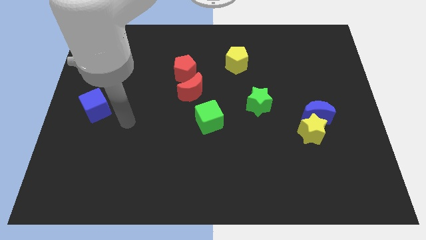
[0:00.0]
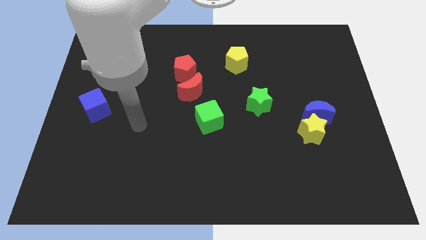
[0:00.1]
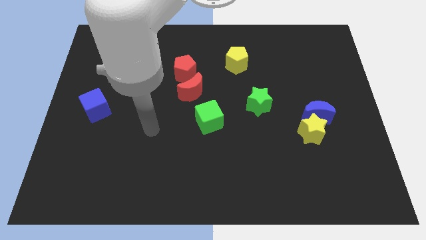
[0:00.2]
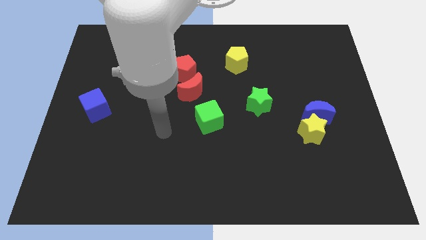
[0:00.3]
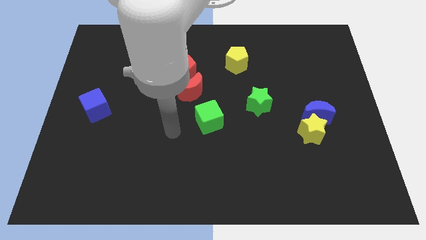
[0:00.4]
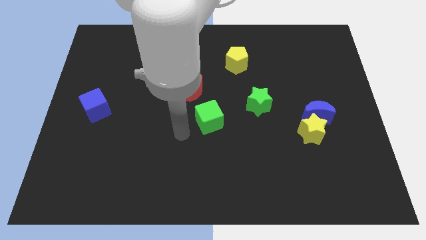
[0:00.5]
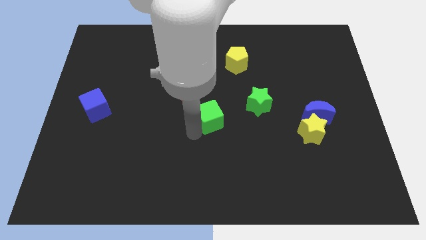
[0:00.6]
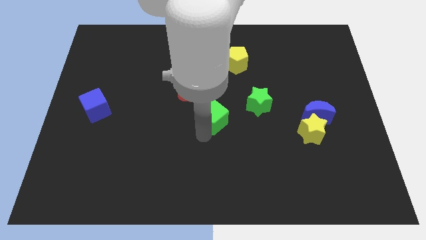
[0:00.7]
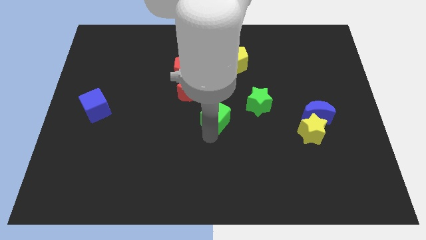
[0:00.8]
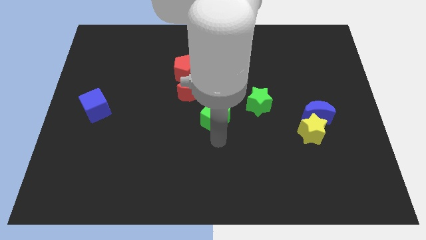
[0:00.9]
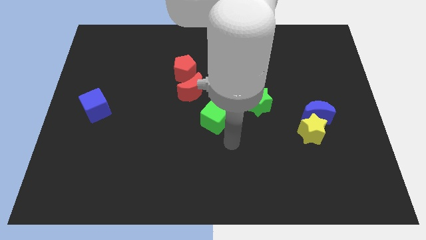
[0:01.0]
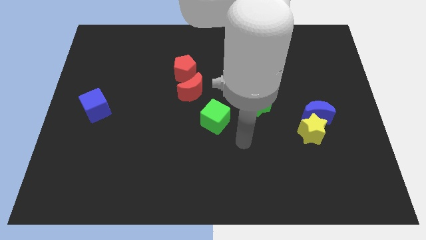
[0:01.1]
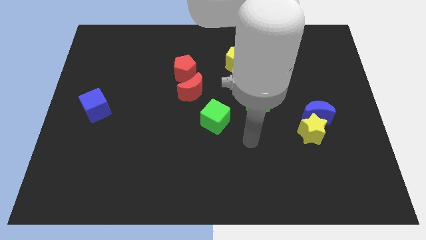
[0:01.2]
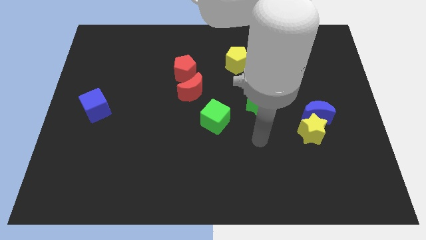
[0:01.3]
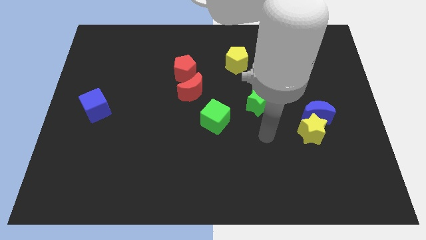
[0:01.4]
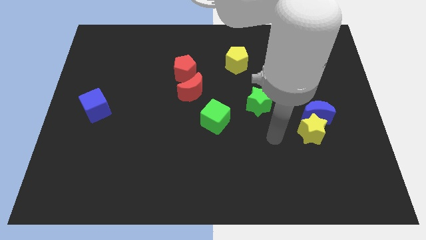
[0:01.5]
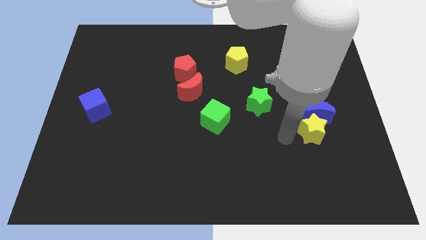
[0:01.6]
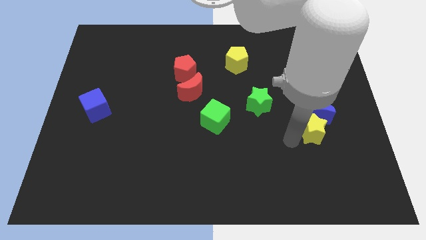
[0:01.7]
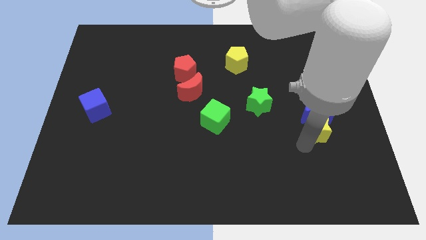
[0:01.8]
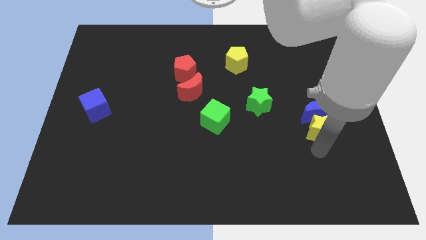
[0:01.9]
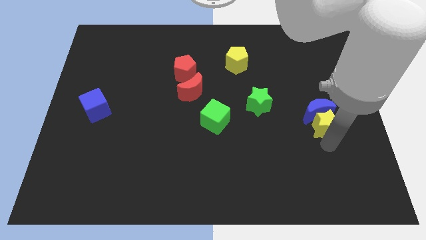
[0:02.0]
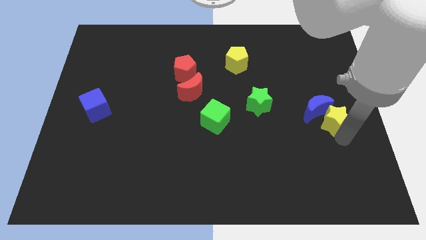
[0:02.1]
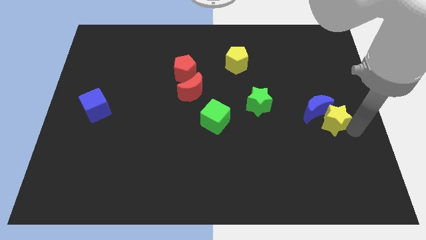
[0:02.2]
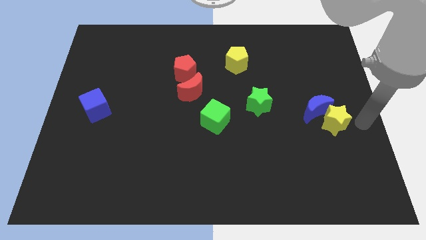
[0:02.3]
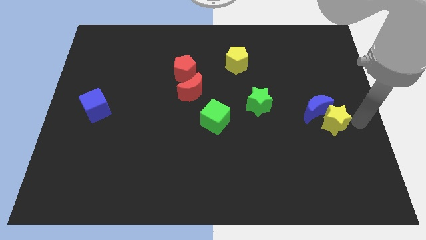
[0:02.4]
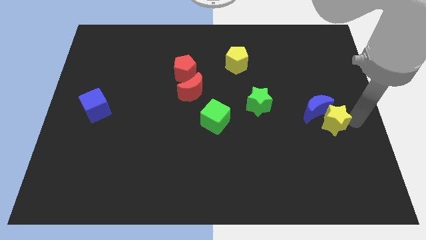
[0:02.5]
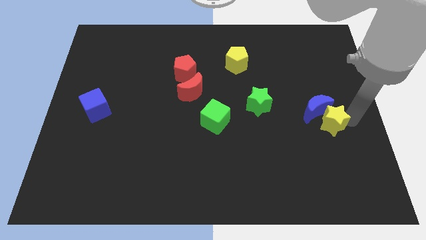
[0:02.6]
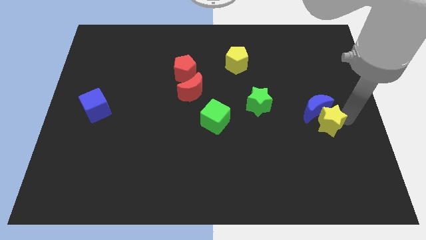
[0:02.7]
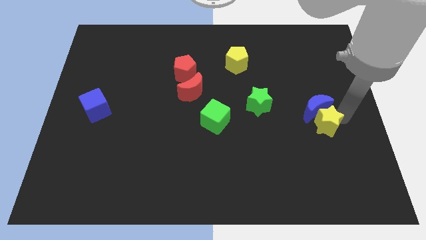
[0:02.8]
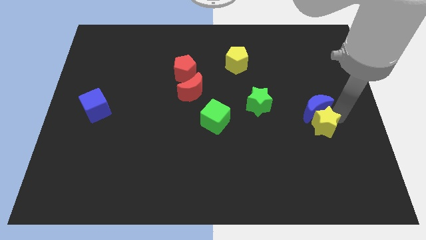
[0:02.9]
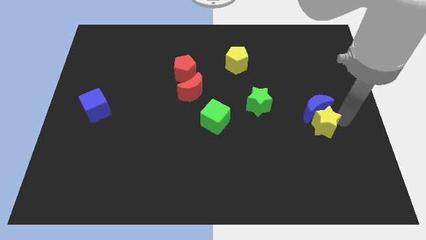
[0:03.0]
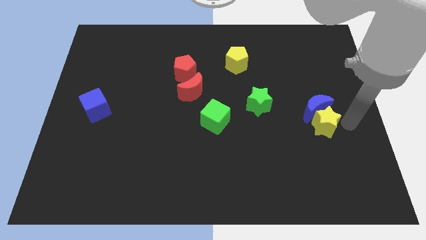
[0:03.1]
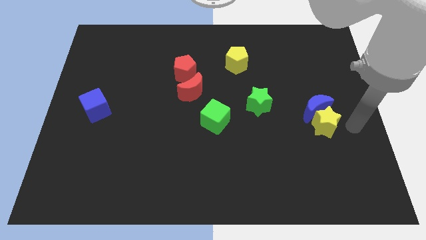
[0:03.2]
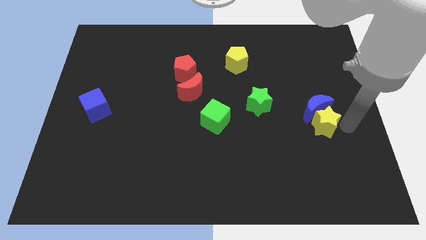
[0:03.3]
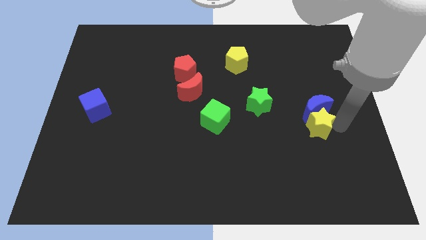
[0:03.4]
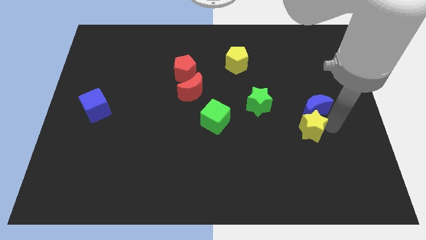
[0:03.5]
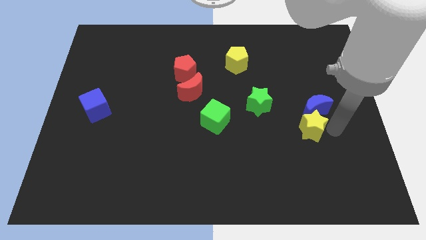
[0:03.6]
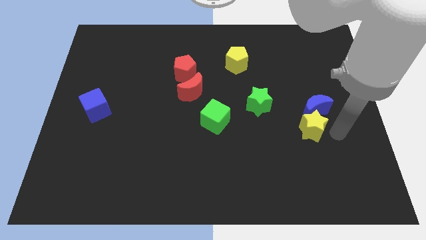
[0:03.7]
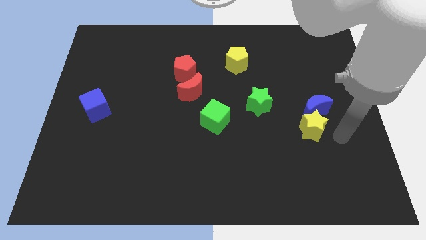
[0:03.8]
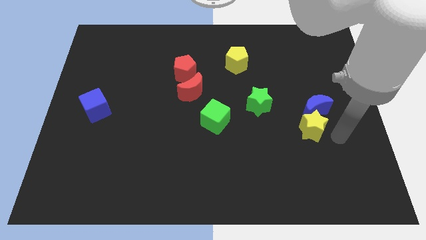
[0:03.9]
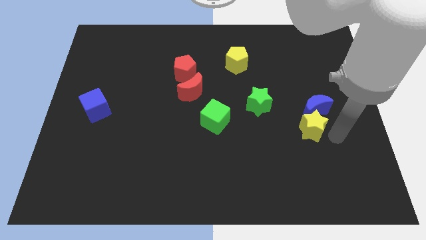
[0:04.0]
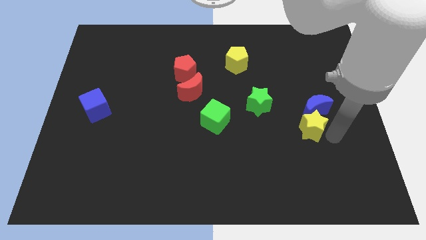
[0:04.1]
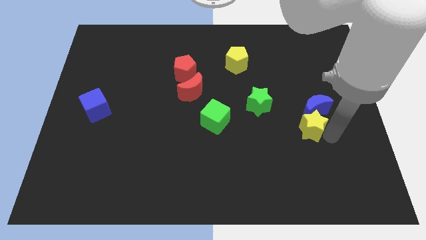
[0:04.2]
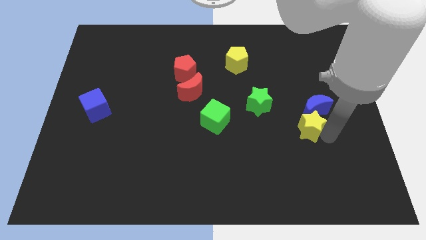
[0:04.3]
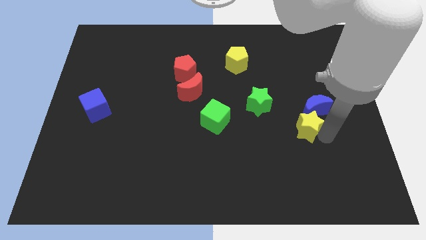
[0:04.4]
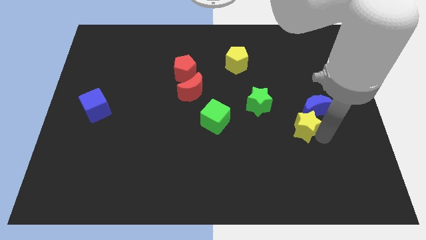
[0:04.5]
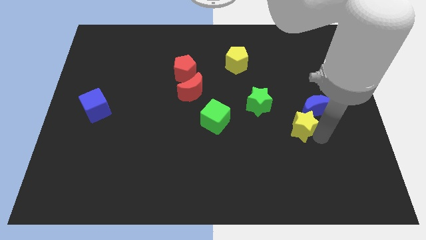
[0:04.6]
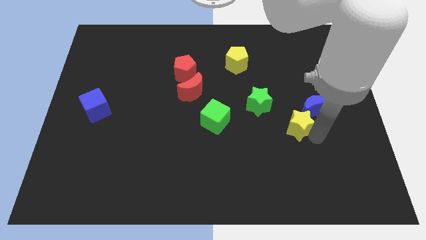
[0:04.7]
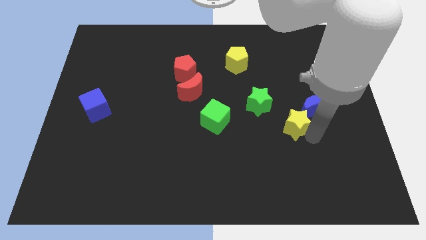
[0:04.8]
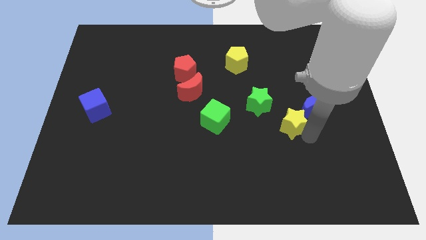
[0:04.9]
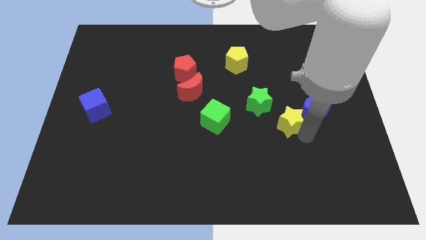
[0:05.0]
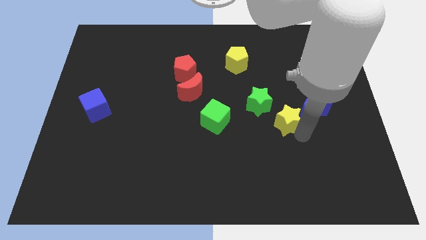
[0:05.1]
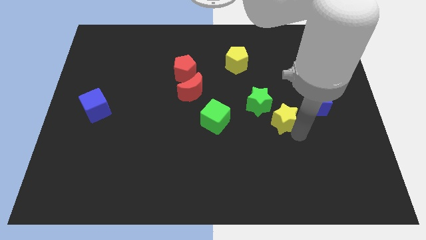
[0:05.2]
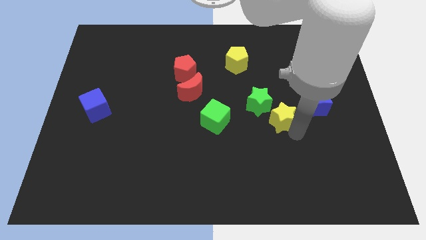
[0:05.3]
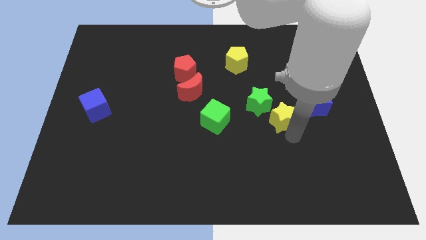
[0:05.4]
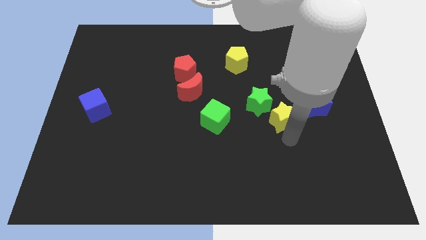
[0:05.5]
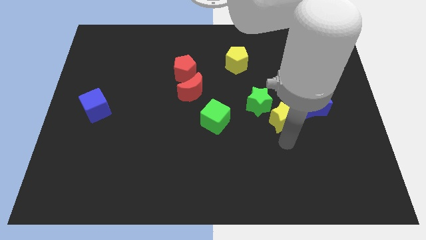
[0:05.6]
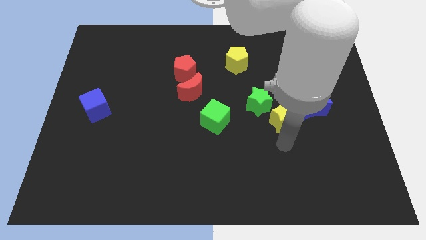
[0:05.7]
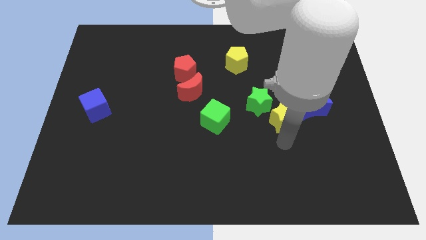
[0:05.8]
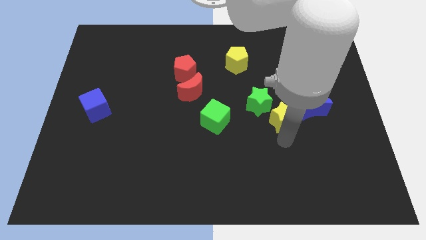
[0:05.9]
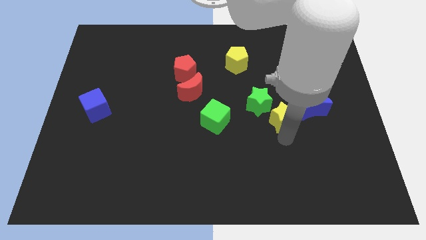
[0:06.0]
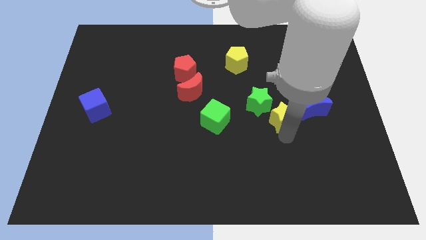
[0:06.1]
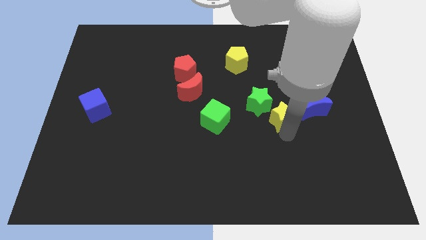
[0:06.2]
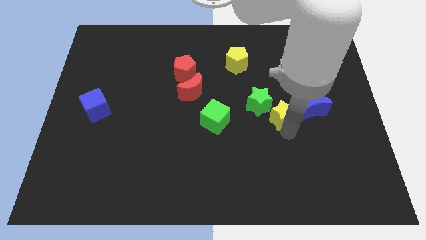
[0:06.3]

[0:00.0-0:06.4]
move the yellow star up and then left slightly

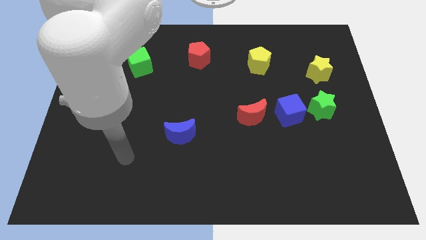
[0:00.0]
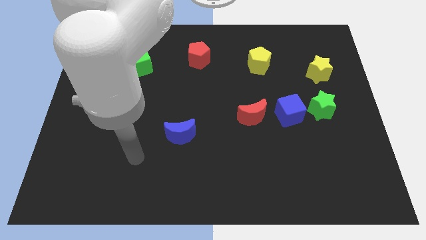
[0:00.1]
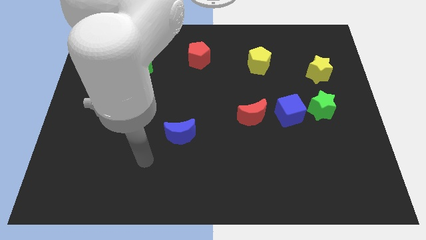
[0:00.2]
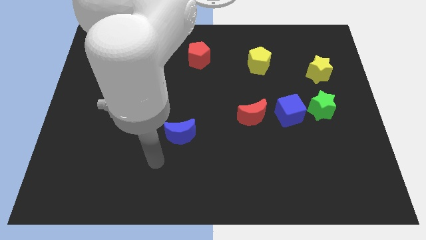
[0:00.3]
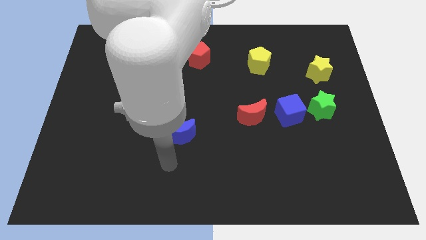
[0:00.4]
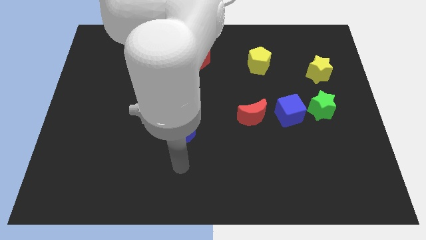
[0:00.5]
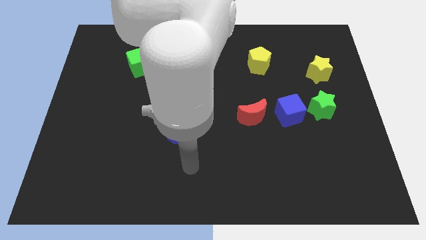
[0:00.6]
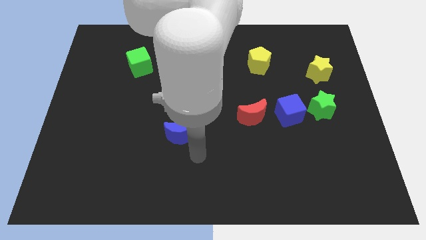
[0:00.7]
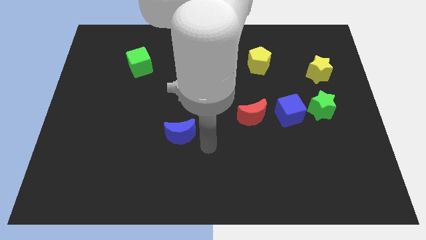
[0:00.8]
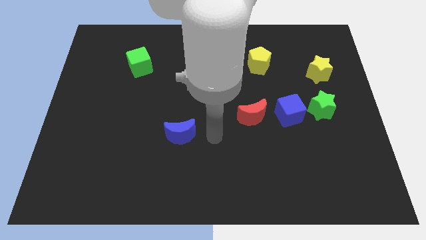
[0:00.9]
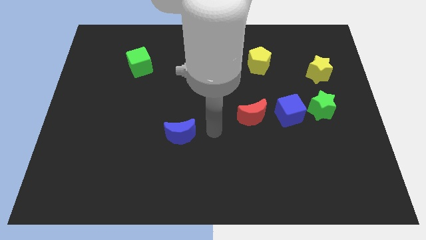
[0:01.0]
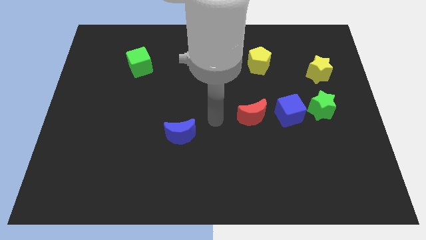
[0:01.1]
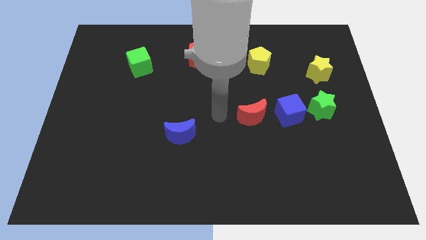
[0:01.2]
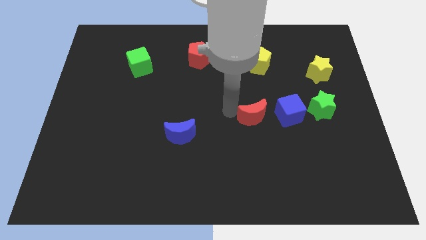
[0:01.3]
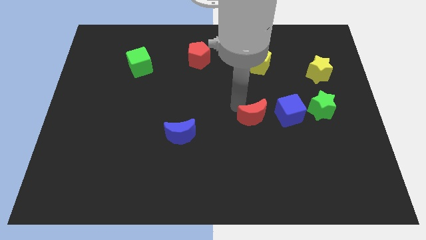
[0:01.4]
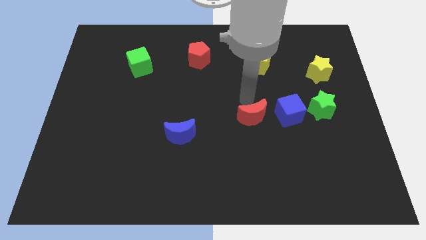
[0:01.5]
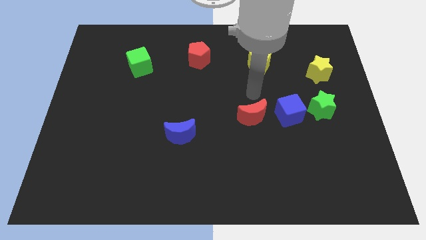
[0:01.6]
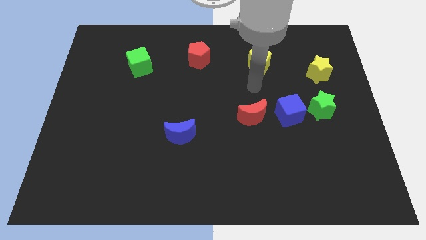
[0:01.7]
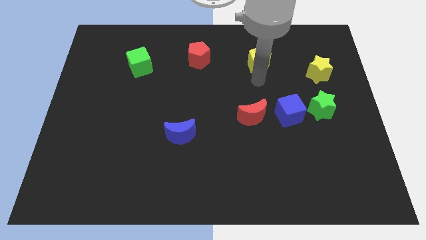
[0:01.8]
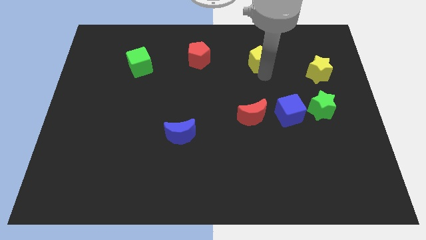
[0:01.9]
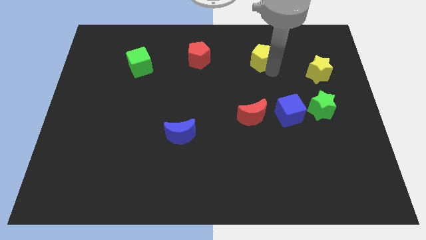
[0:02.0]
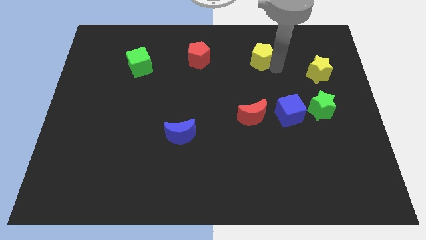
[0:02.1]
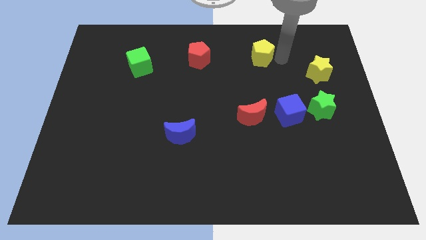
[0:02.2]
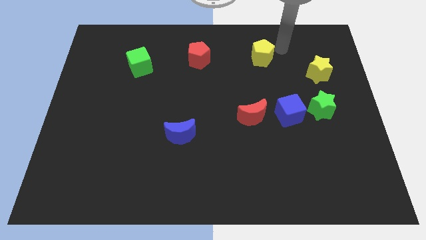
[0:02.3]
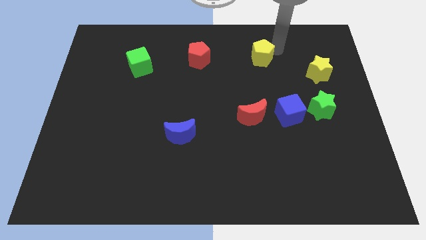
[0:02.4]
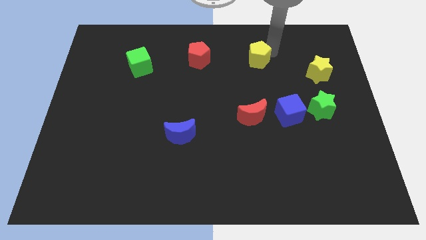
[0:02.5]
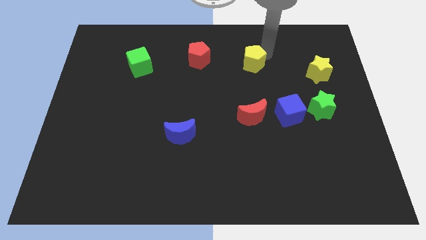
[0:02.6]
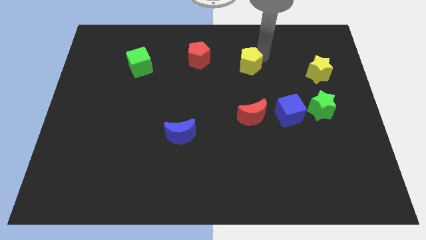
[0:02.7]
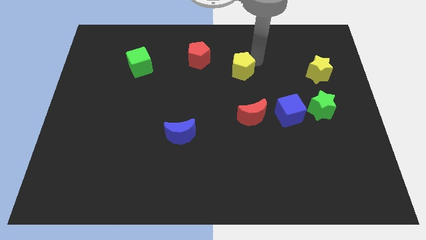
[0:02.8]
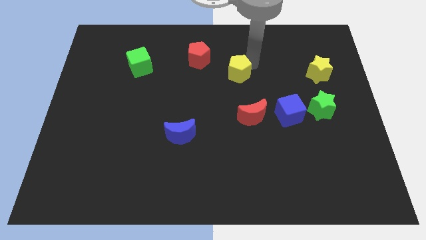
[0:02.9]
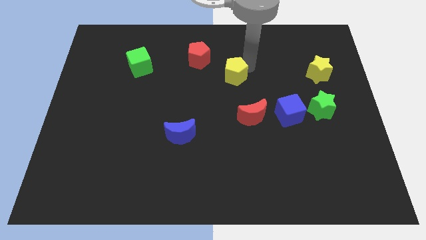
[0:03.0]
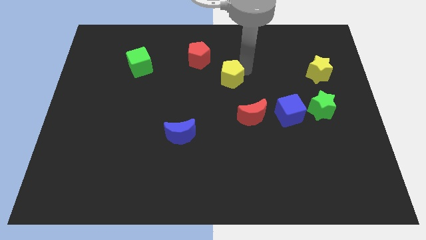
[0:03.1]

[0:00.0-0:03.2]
slightly move the yellow pentagon left
